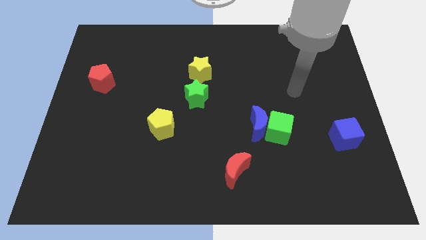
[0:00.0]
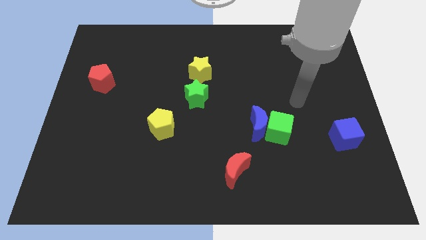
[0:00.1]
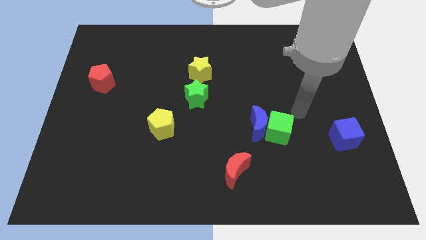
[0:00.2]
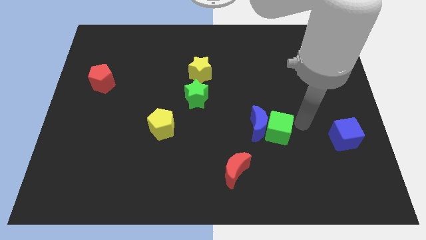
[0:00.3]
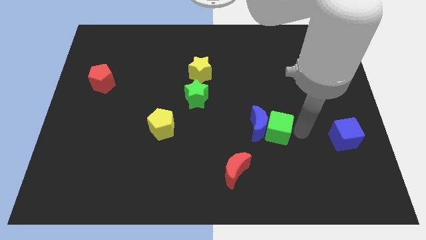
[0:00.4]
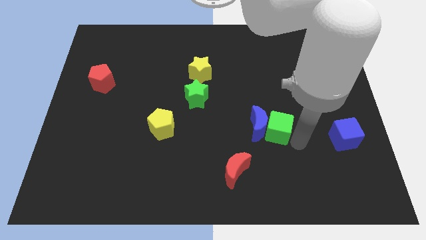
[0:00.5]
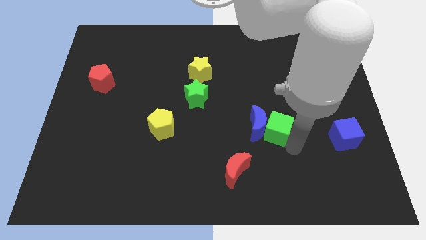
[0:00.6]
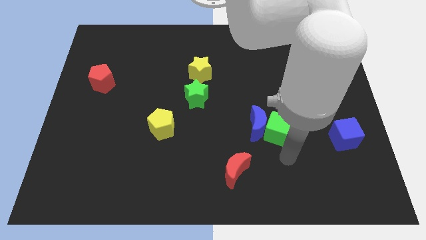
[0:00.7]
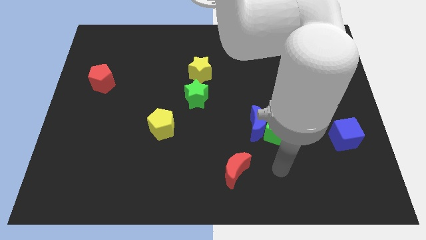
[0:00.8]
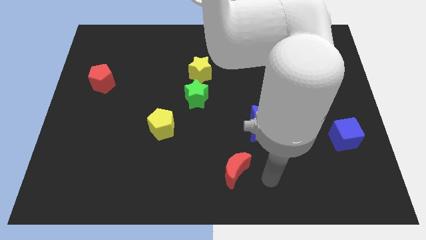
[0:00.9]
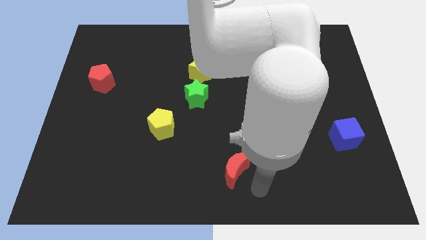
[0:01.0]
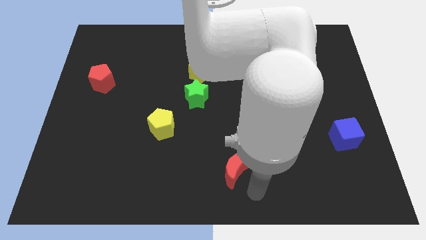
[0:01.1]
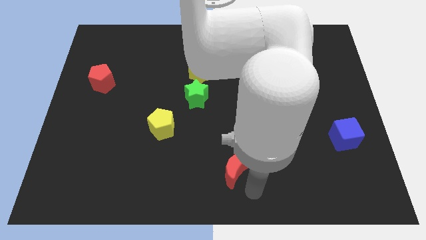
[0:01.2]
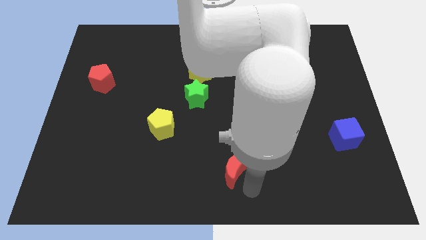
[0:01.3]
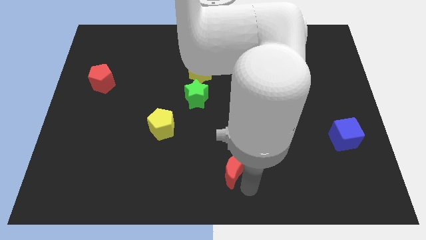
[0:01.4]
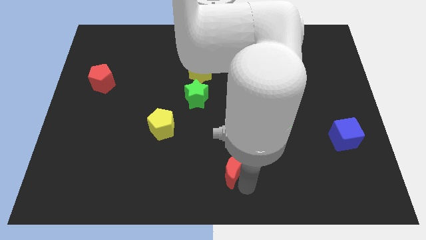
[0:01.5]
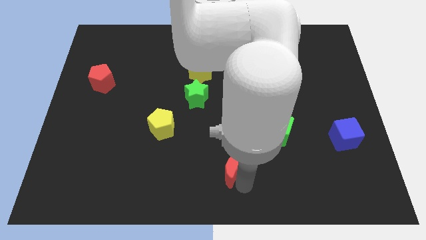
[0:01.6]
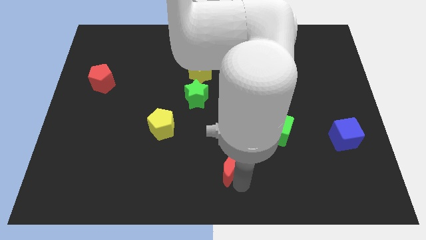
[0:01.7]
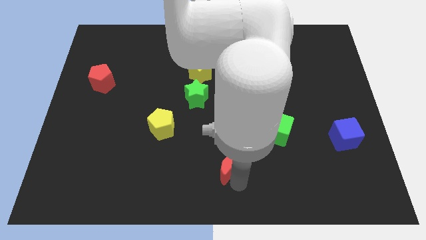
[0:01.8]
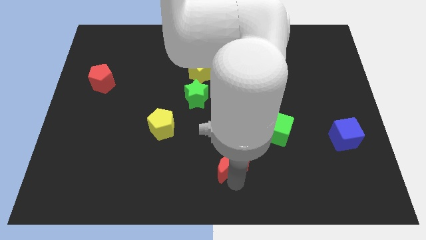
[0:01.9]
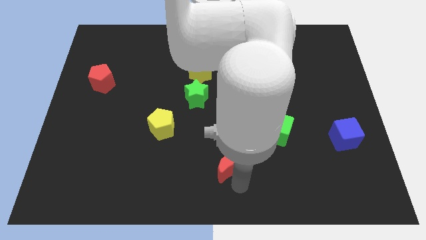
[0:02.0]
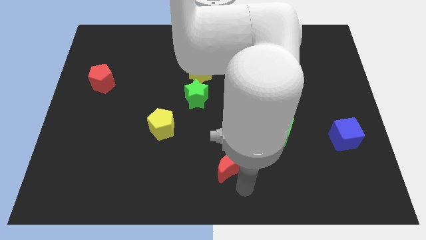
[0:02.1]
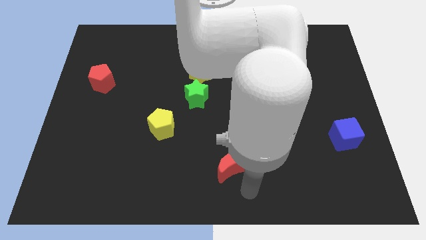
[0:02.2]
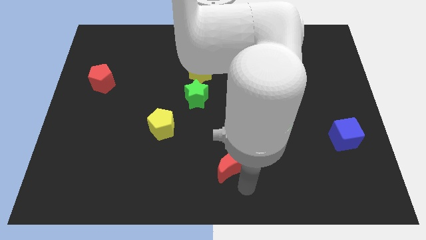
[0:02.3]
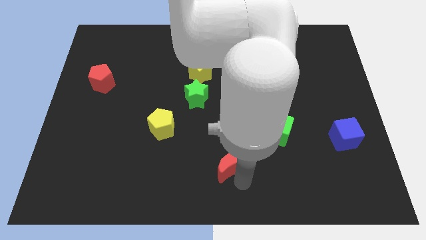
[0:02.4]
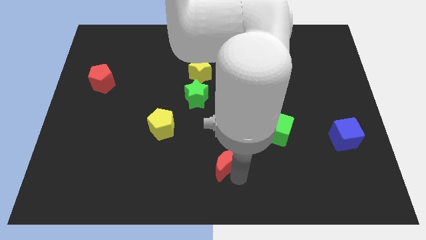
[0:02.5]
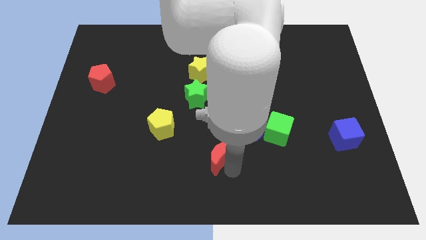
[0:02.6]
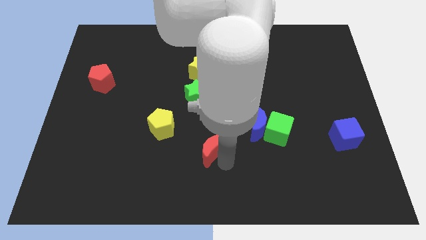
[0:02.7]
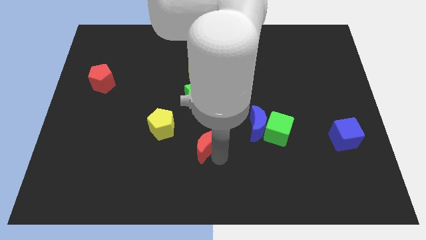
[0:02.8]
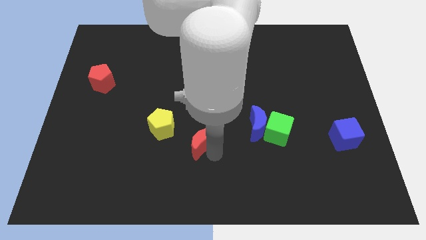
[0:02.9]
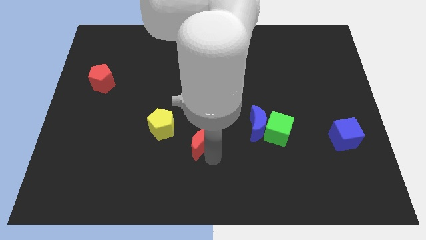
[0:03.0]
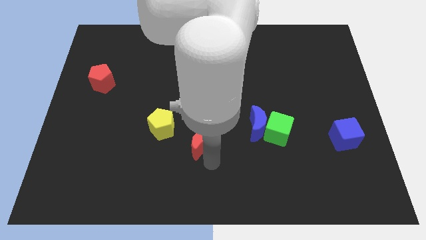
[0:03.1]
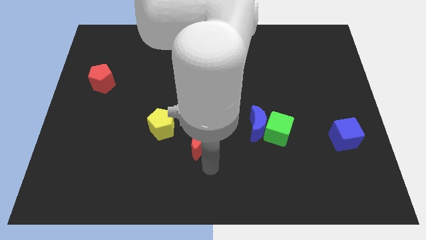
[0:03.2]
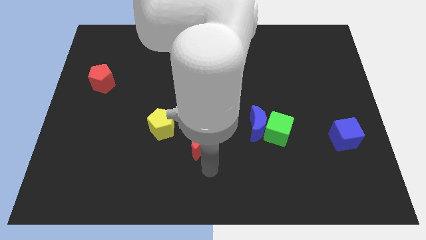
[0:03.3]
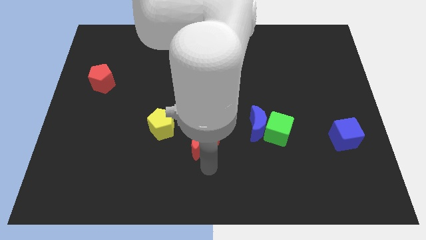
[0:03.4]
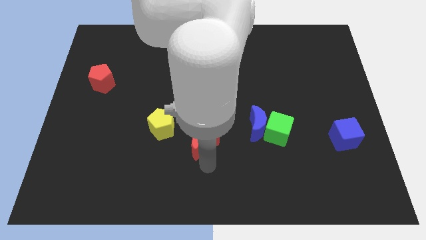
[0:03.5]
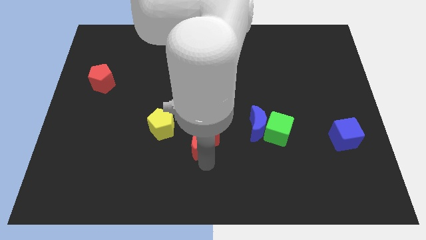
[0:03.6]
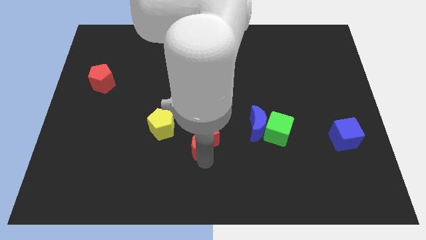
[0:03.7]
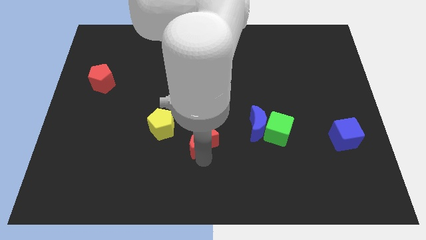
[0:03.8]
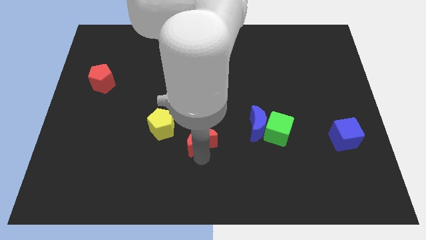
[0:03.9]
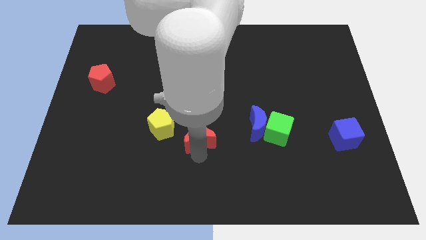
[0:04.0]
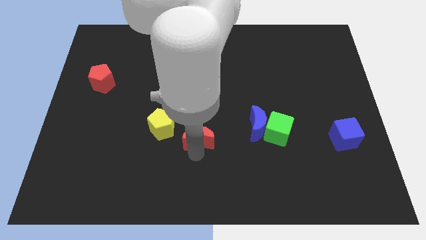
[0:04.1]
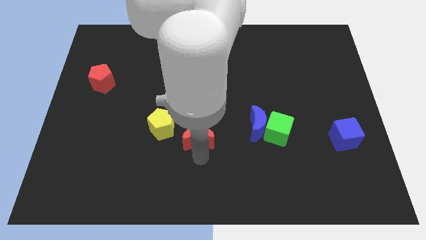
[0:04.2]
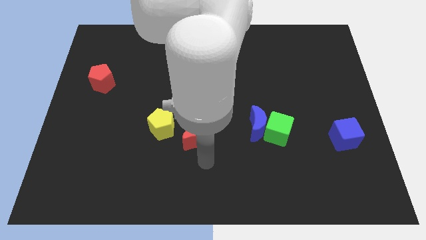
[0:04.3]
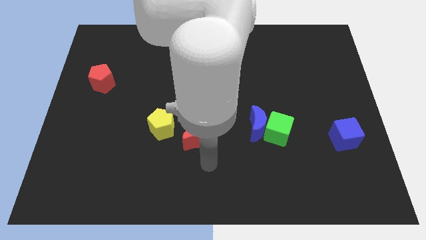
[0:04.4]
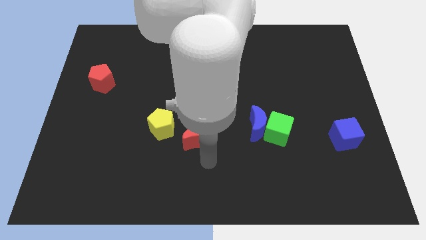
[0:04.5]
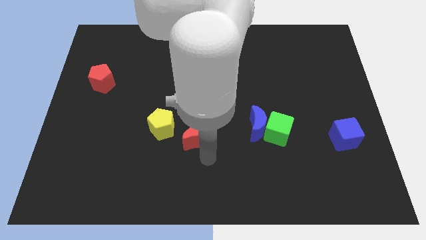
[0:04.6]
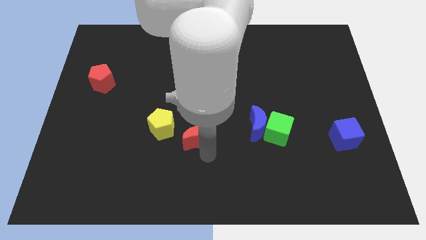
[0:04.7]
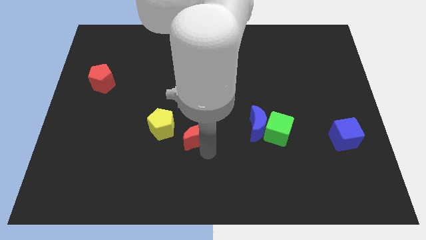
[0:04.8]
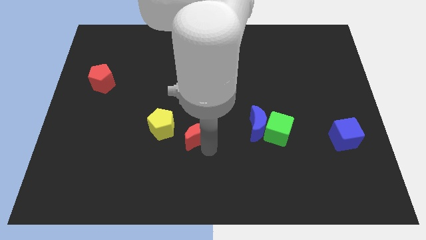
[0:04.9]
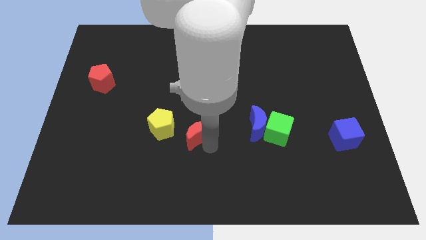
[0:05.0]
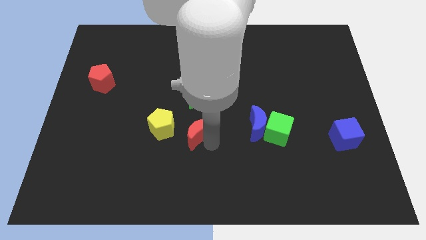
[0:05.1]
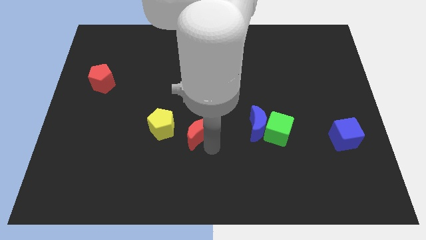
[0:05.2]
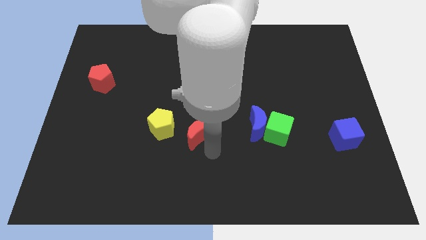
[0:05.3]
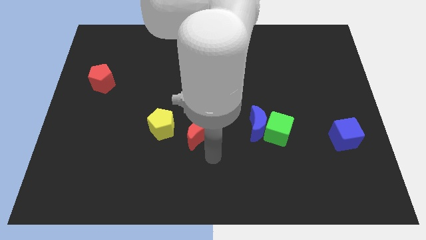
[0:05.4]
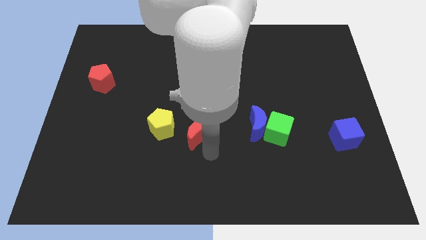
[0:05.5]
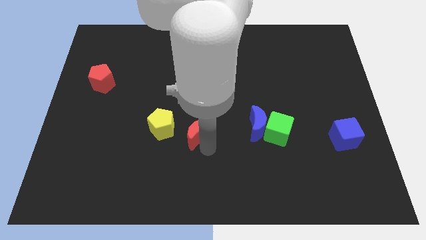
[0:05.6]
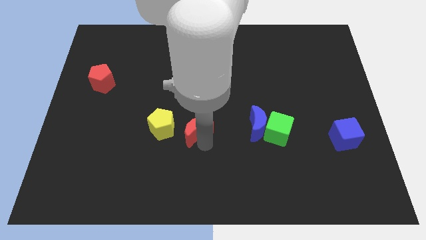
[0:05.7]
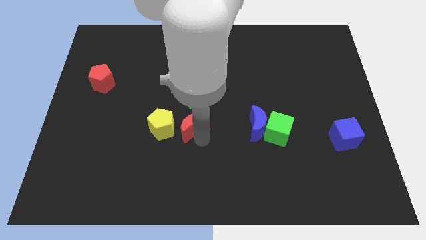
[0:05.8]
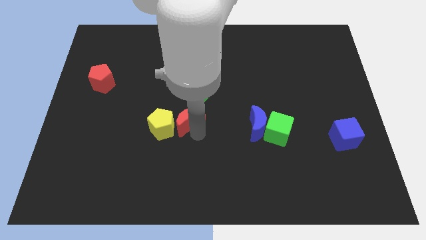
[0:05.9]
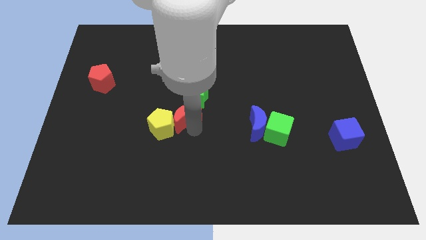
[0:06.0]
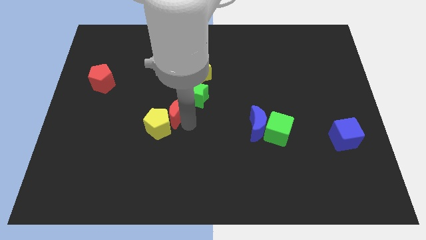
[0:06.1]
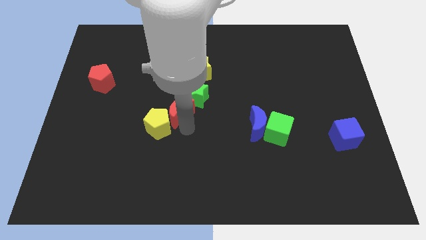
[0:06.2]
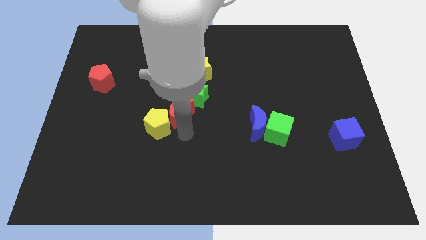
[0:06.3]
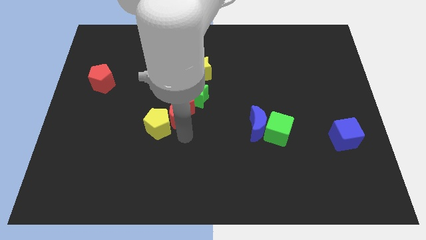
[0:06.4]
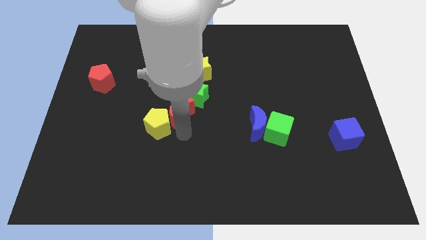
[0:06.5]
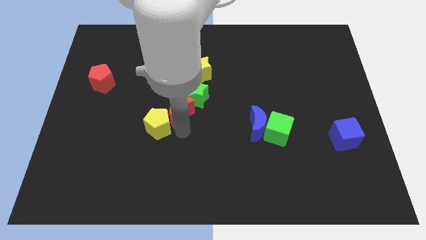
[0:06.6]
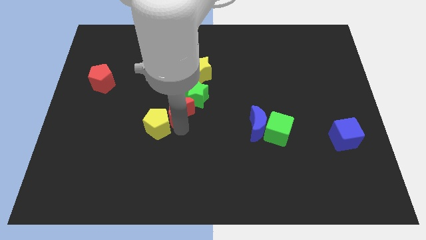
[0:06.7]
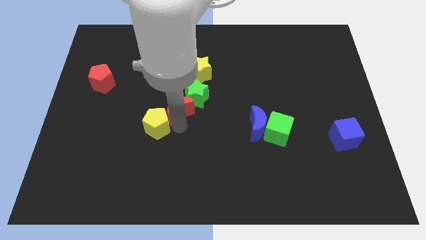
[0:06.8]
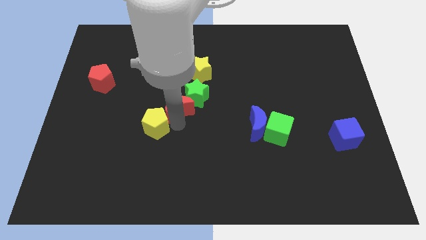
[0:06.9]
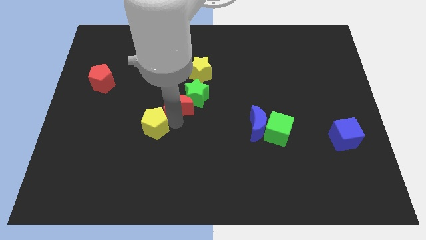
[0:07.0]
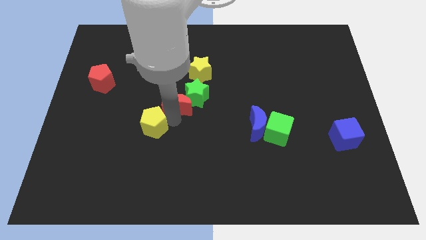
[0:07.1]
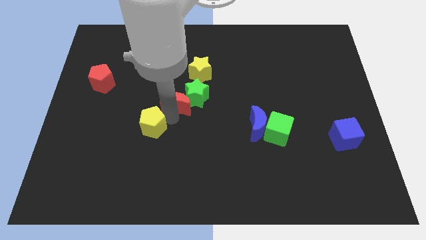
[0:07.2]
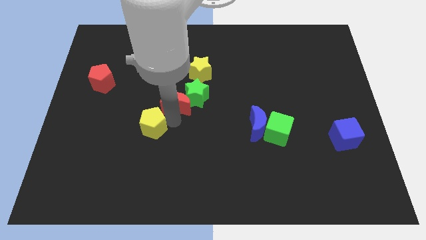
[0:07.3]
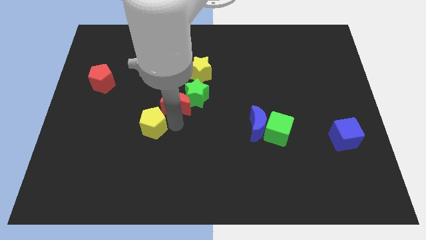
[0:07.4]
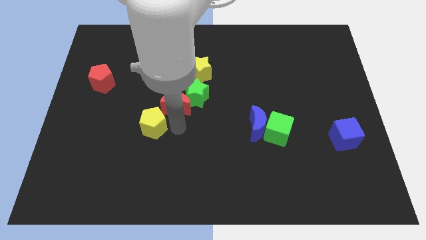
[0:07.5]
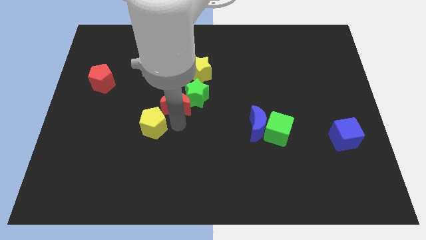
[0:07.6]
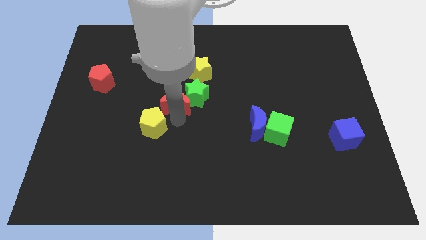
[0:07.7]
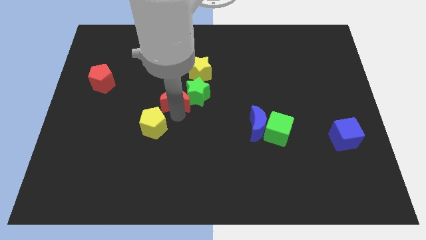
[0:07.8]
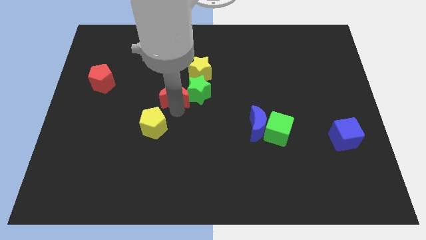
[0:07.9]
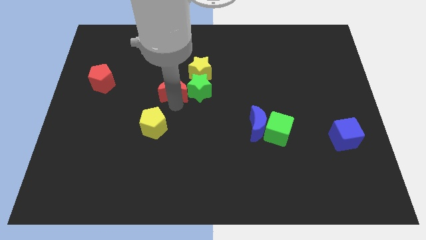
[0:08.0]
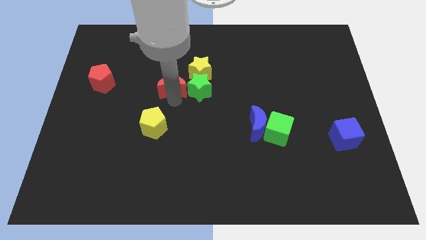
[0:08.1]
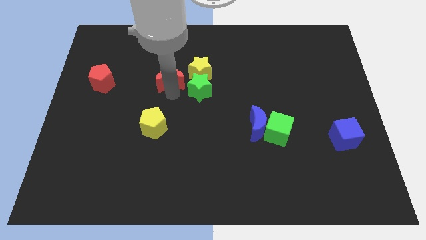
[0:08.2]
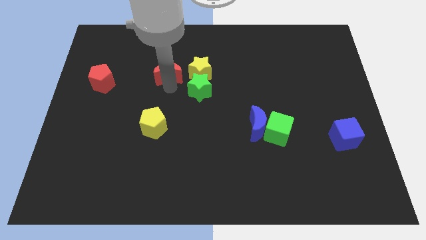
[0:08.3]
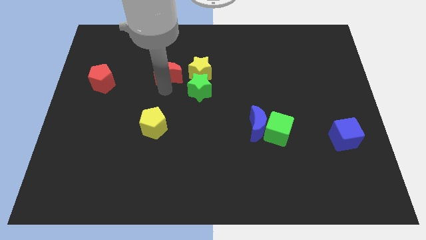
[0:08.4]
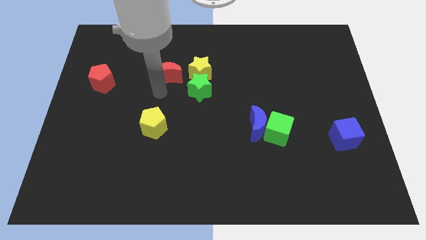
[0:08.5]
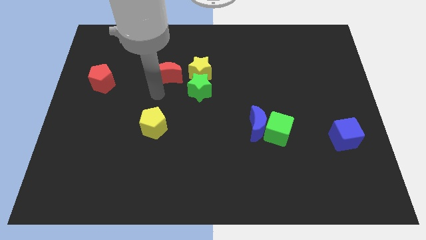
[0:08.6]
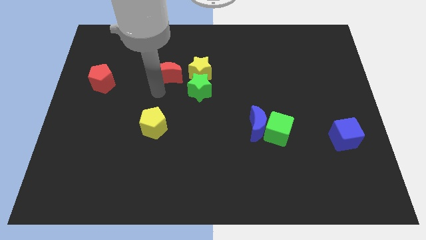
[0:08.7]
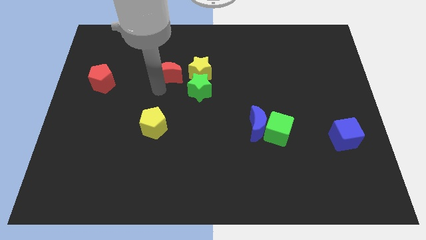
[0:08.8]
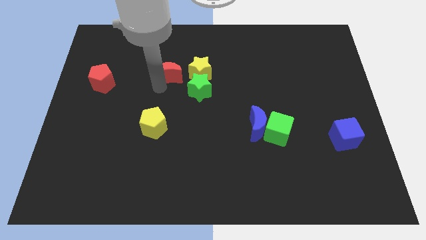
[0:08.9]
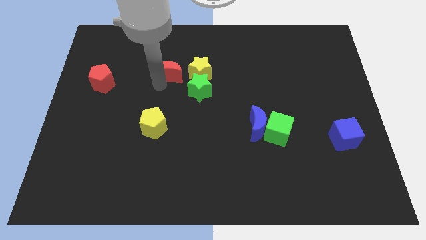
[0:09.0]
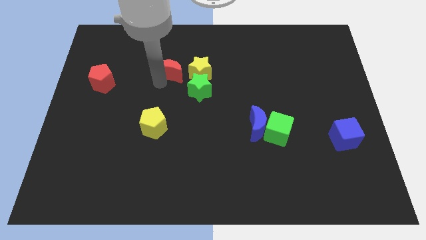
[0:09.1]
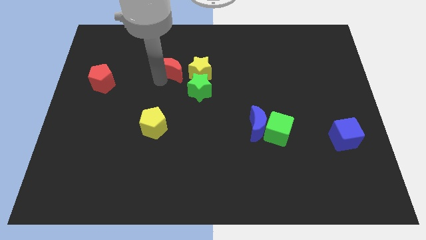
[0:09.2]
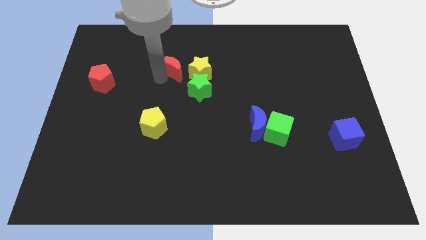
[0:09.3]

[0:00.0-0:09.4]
move the red moon to the top left of the yellow star
